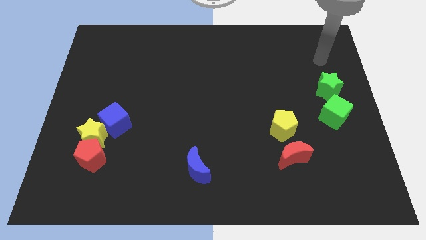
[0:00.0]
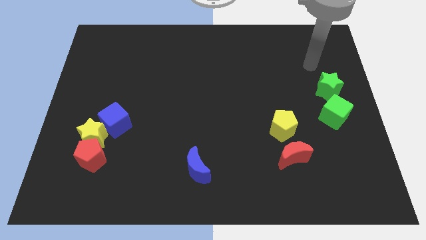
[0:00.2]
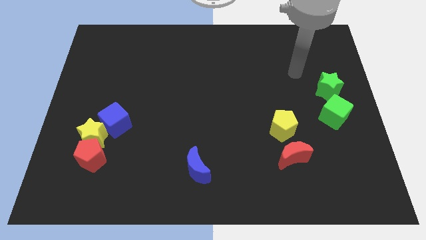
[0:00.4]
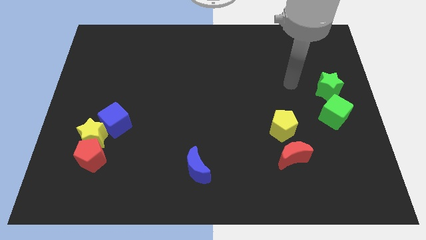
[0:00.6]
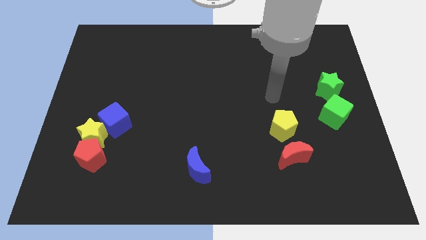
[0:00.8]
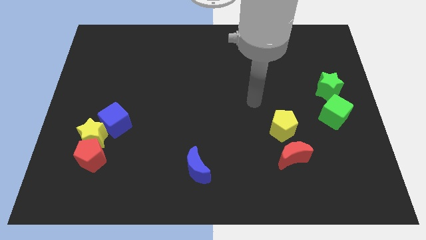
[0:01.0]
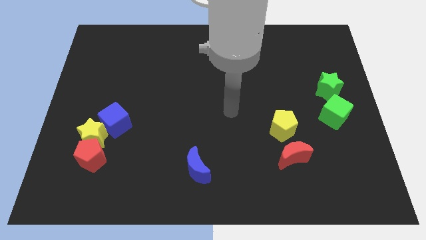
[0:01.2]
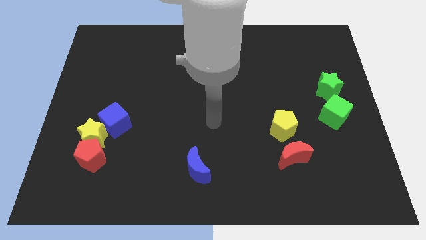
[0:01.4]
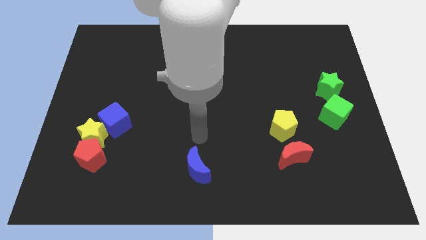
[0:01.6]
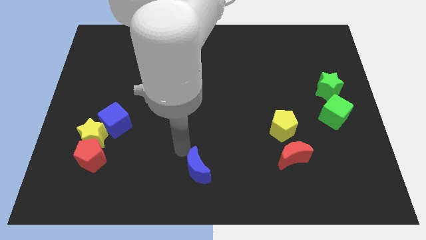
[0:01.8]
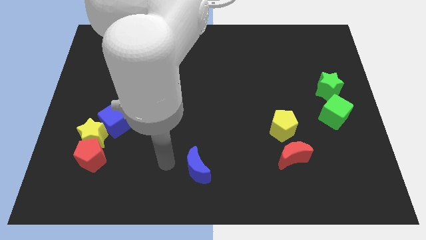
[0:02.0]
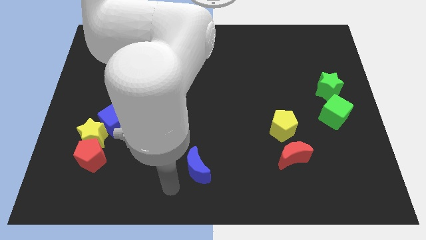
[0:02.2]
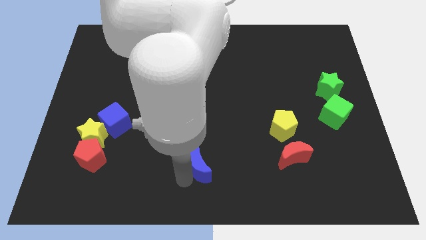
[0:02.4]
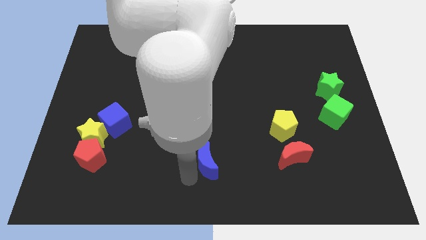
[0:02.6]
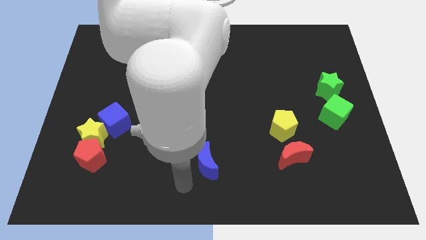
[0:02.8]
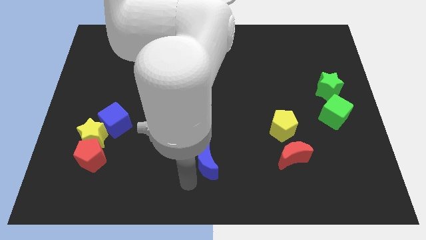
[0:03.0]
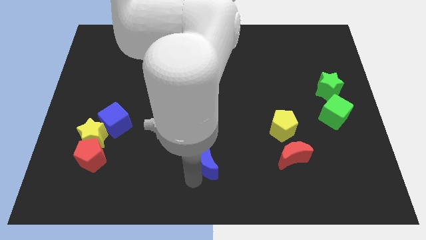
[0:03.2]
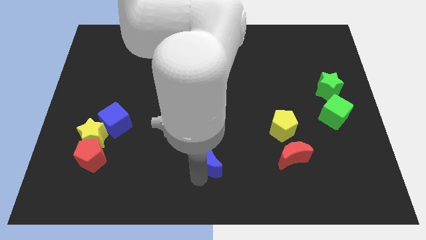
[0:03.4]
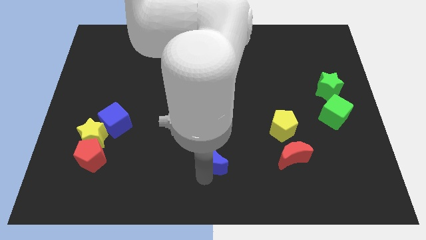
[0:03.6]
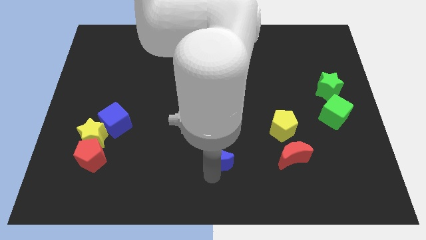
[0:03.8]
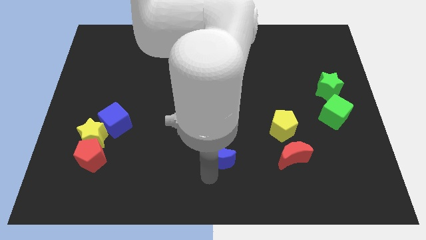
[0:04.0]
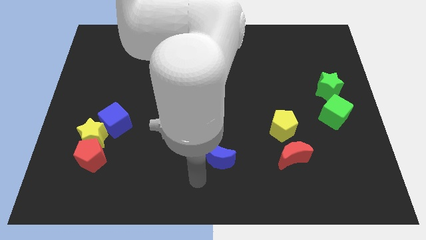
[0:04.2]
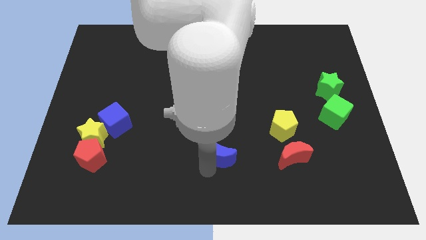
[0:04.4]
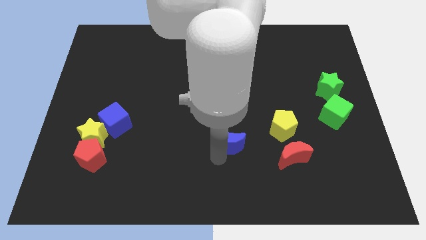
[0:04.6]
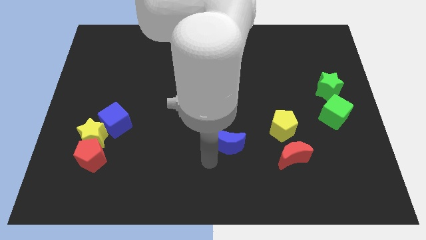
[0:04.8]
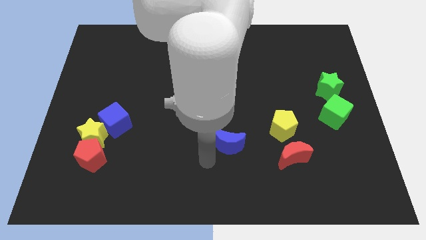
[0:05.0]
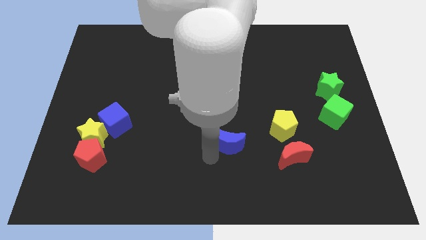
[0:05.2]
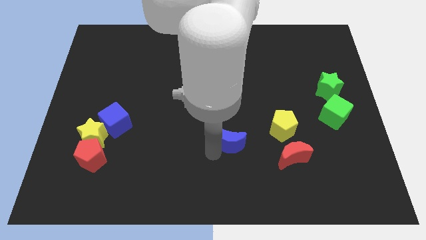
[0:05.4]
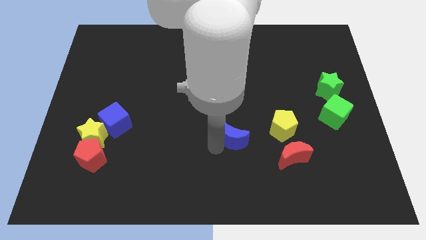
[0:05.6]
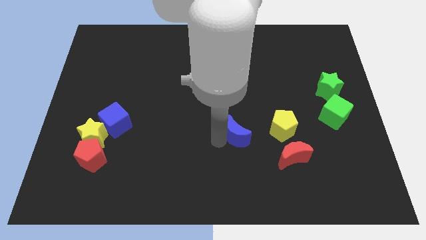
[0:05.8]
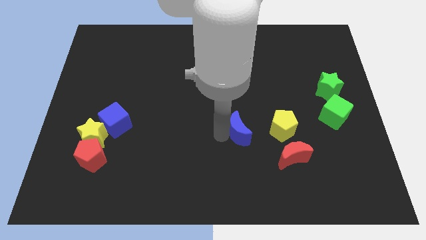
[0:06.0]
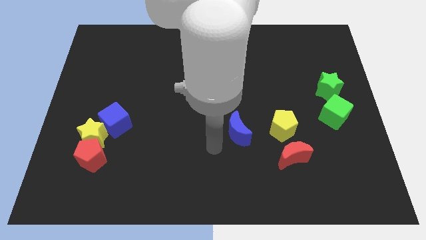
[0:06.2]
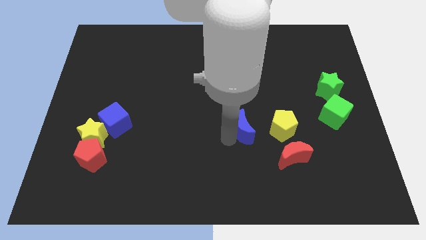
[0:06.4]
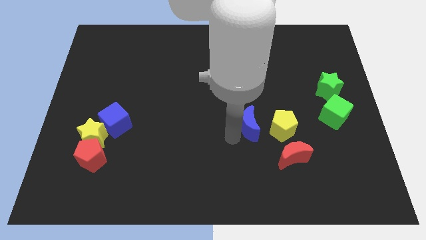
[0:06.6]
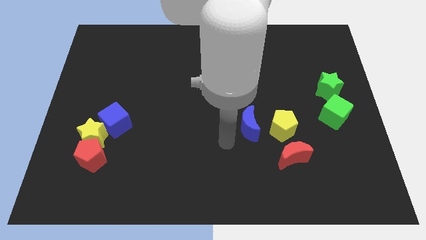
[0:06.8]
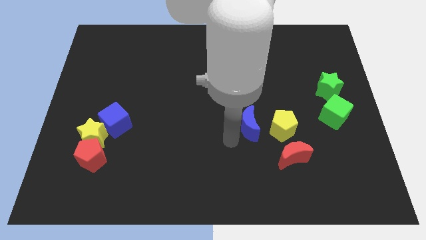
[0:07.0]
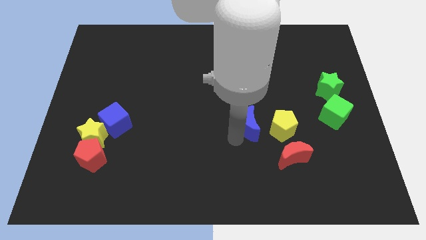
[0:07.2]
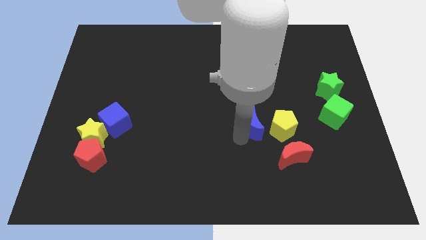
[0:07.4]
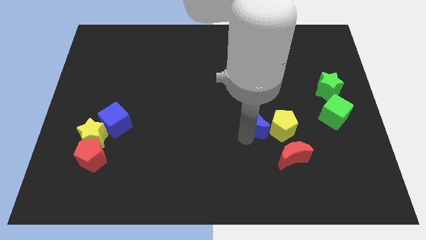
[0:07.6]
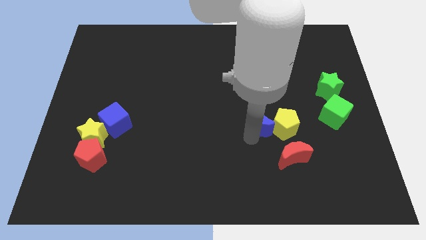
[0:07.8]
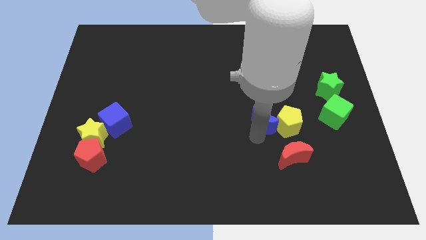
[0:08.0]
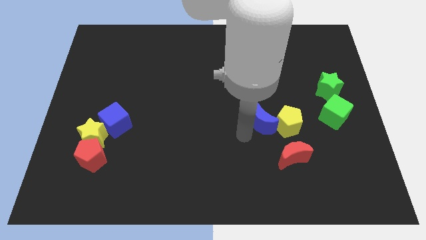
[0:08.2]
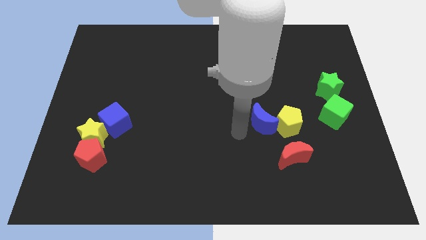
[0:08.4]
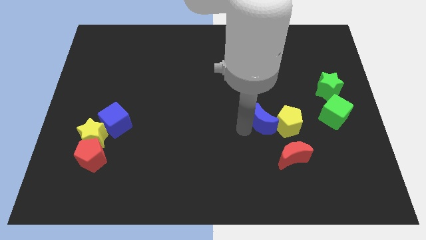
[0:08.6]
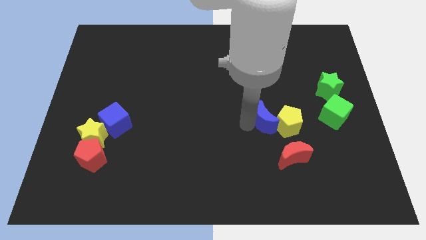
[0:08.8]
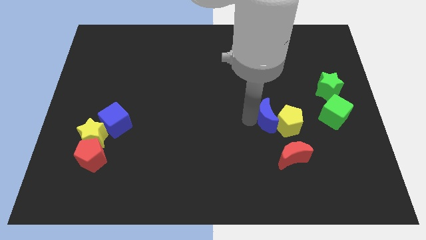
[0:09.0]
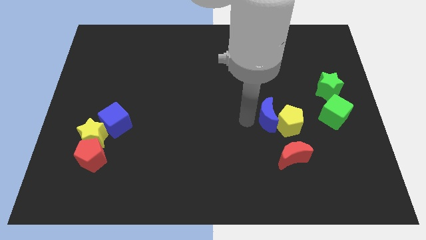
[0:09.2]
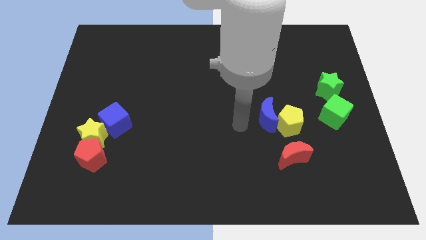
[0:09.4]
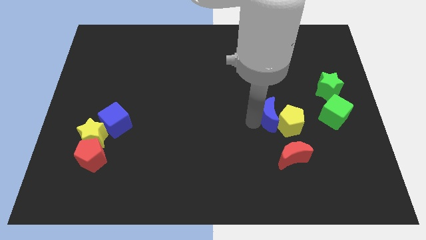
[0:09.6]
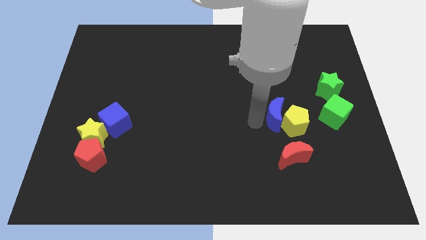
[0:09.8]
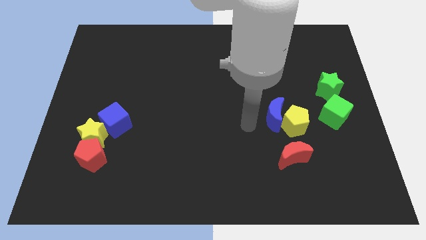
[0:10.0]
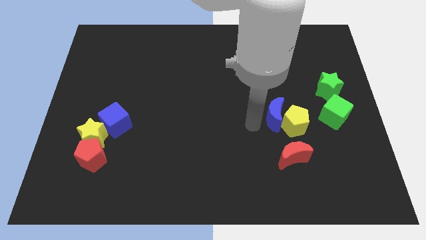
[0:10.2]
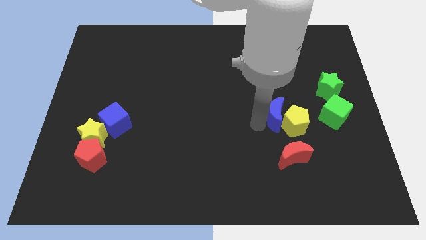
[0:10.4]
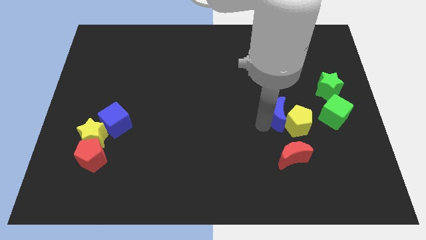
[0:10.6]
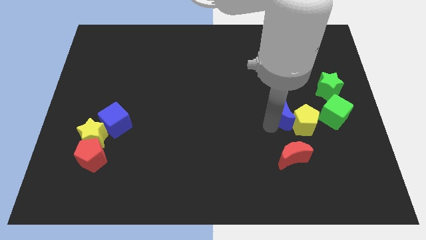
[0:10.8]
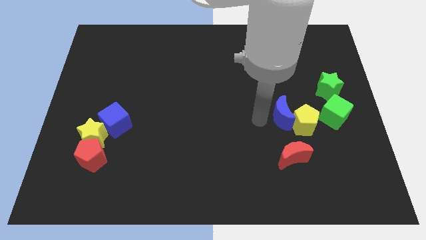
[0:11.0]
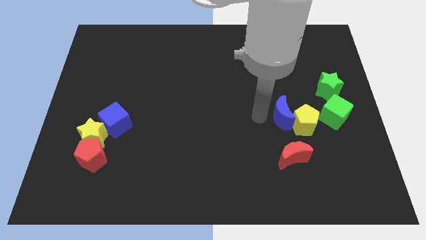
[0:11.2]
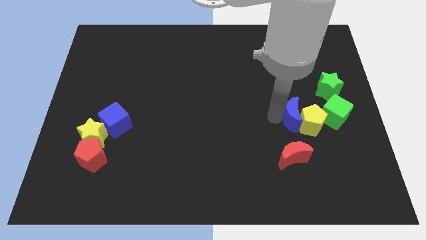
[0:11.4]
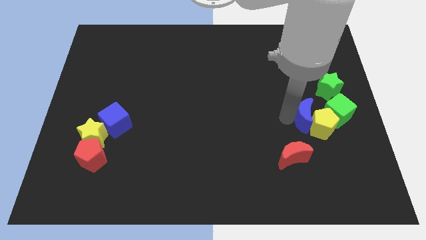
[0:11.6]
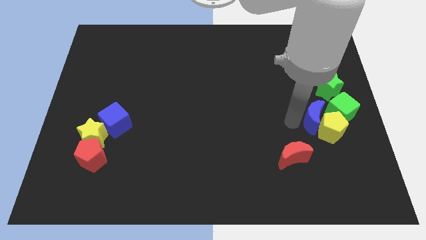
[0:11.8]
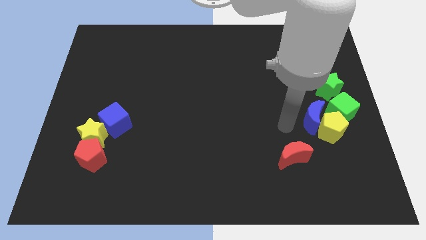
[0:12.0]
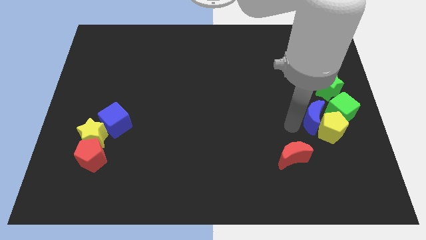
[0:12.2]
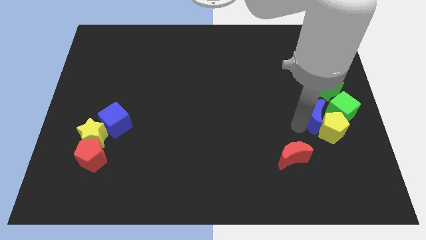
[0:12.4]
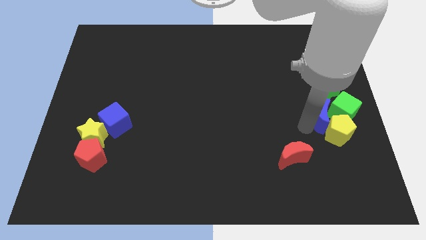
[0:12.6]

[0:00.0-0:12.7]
move the blue moon towards the green cube
